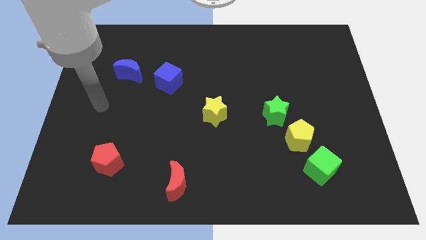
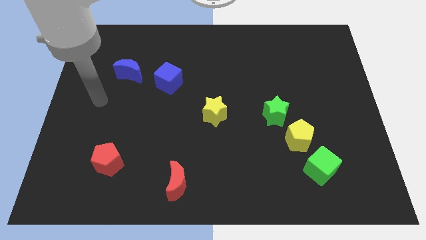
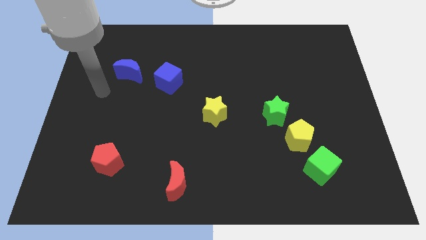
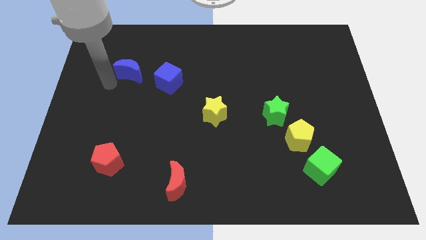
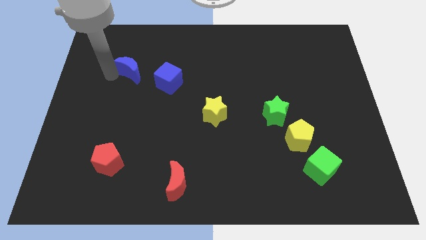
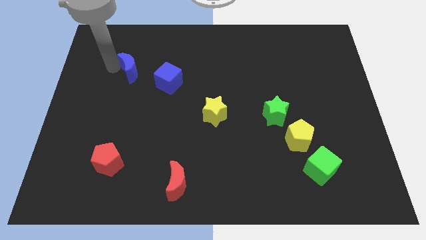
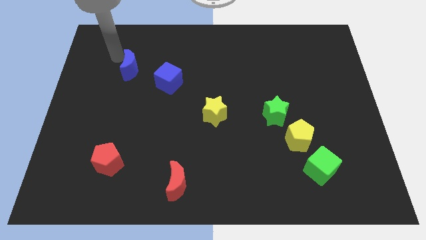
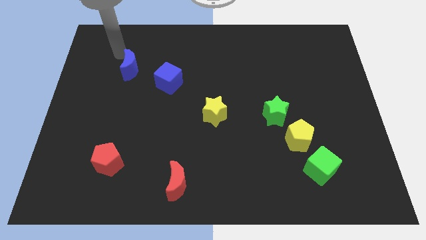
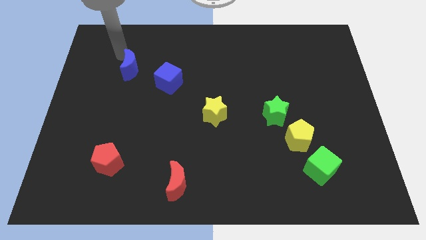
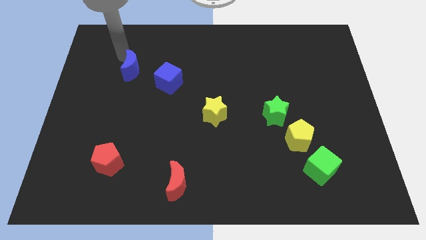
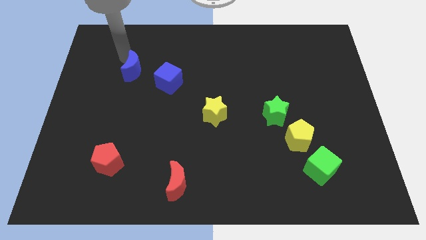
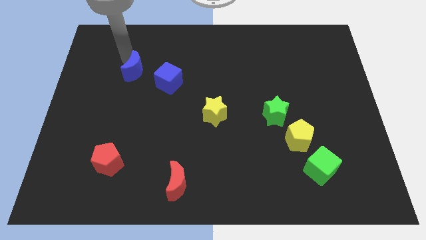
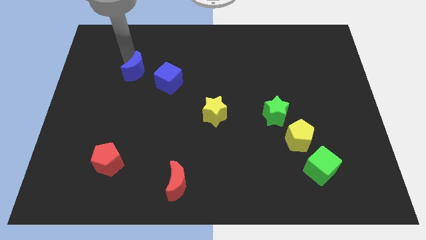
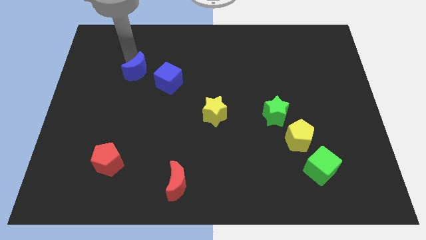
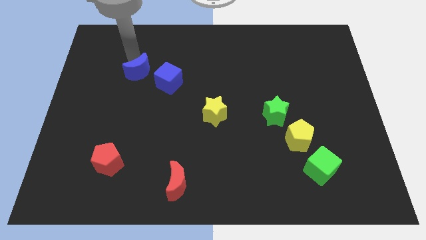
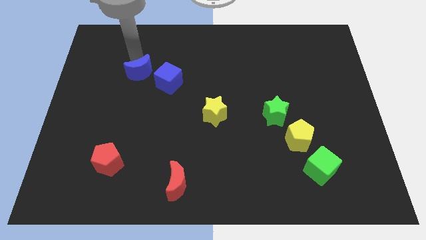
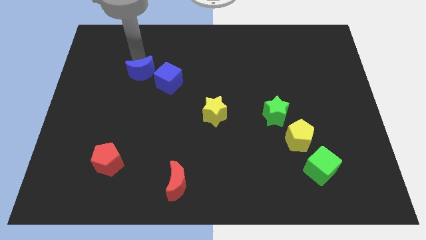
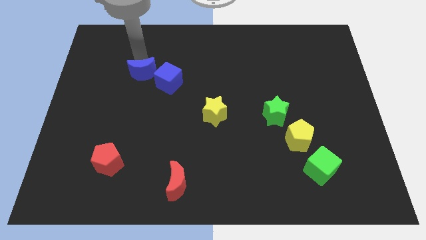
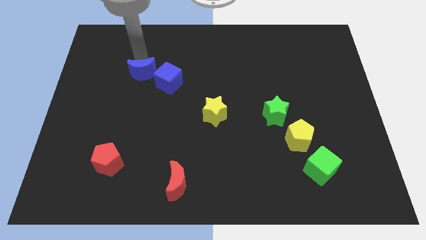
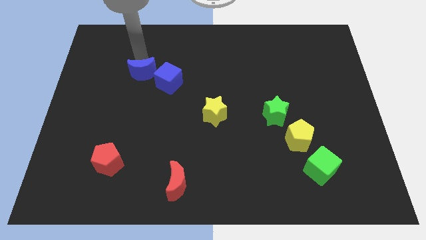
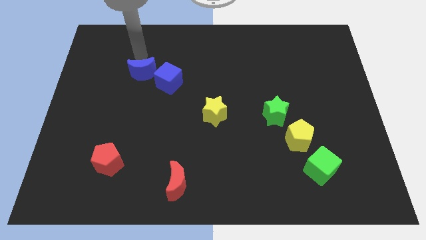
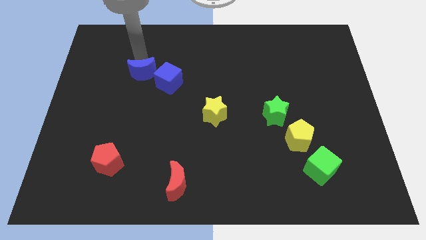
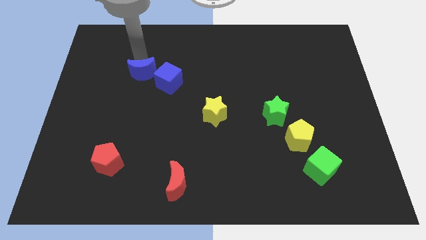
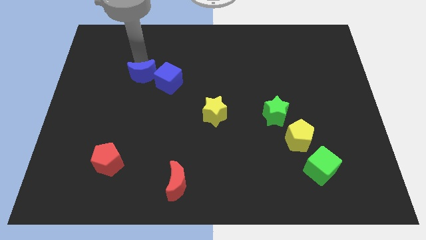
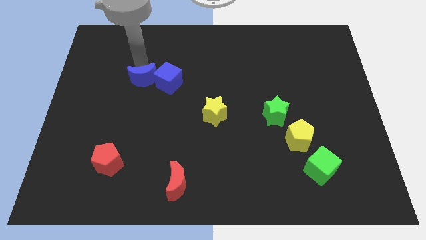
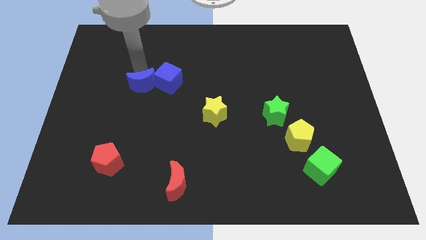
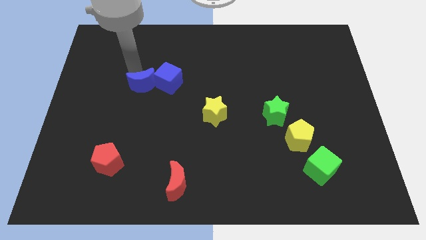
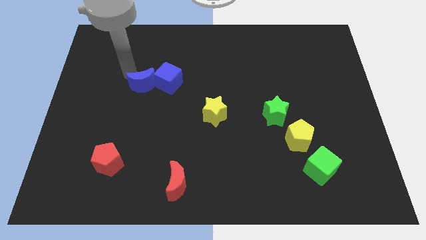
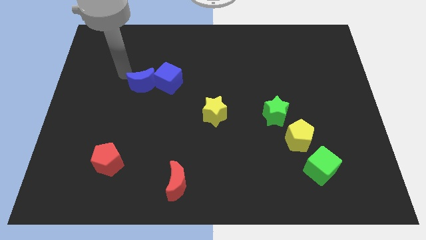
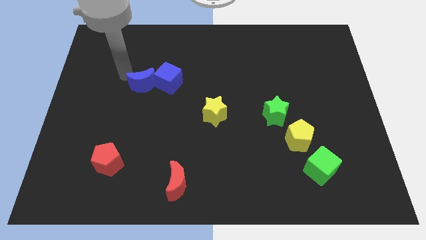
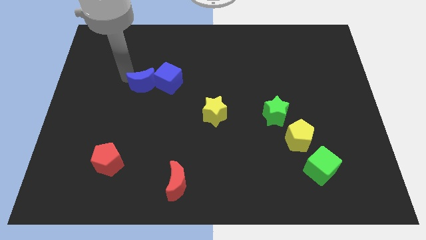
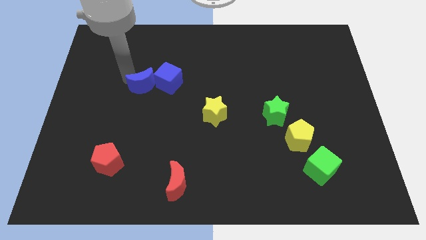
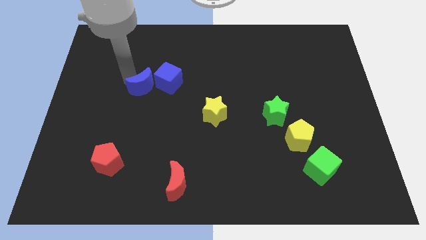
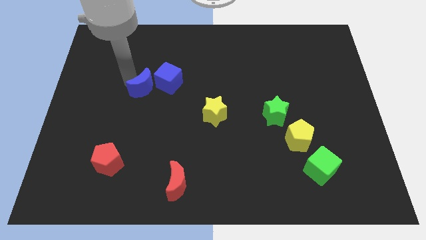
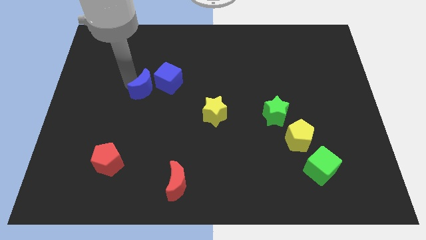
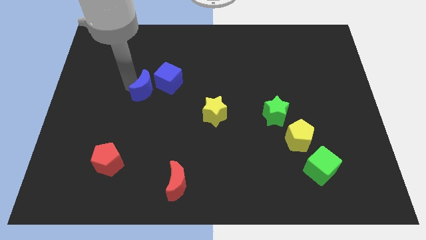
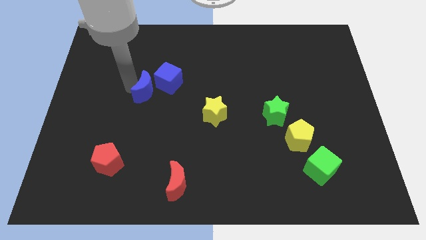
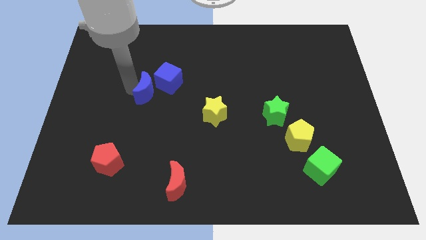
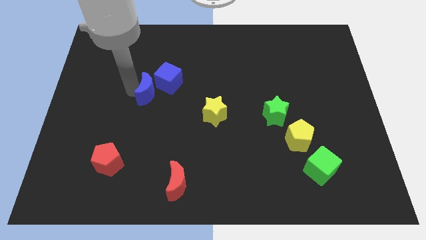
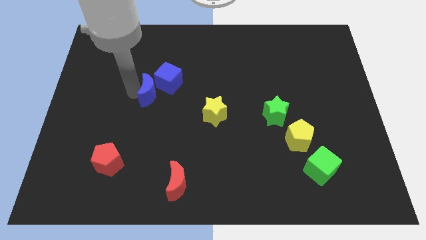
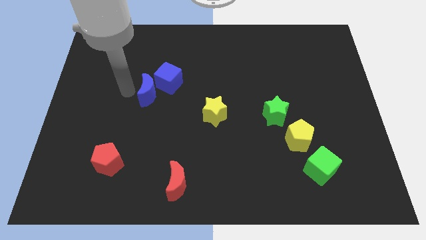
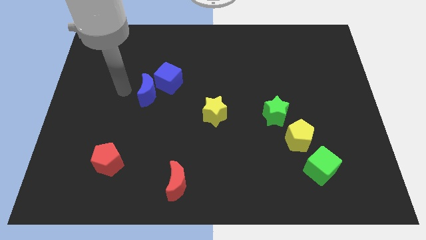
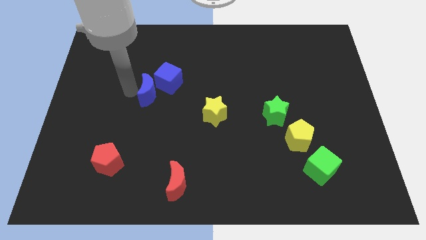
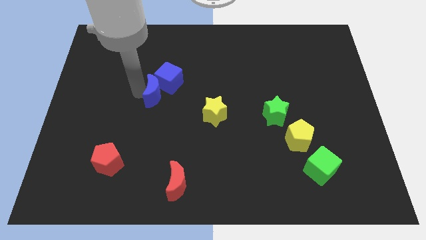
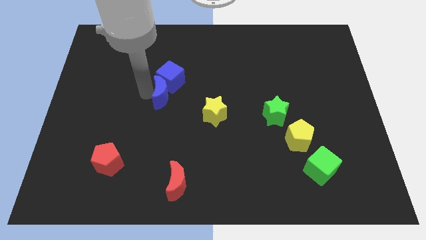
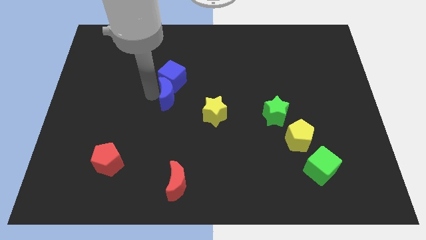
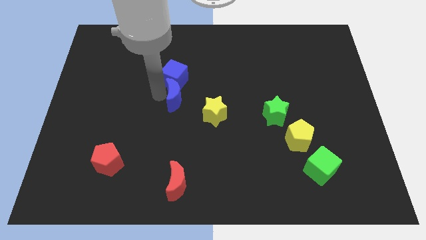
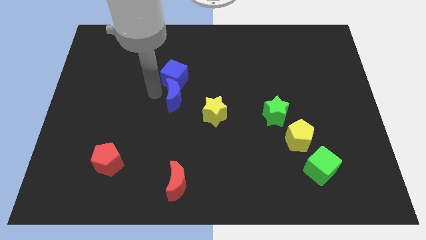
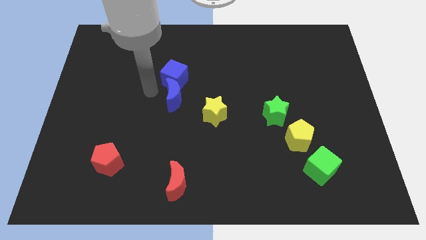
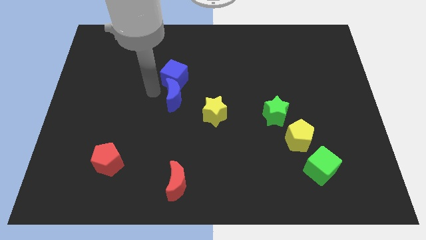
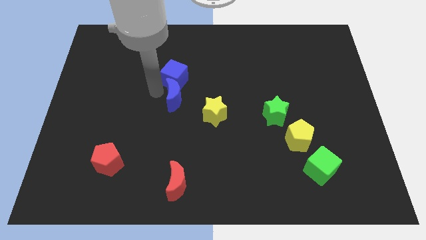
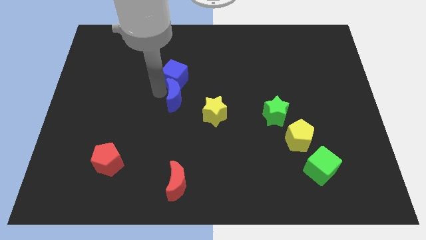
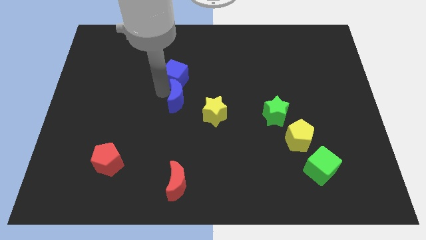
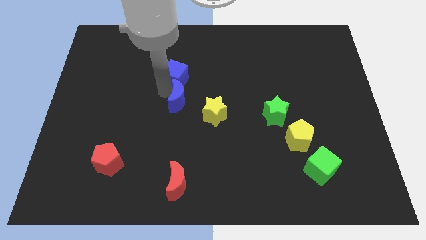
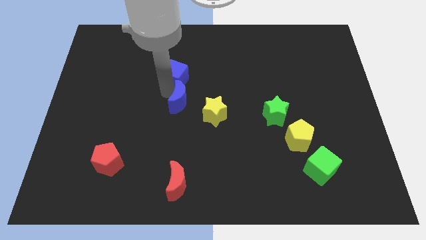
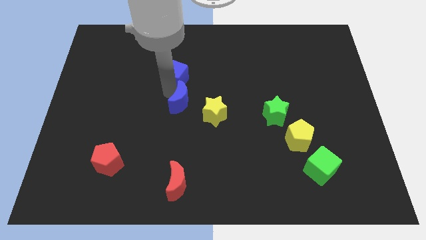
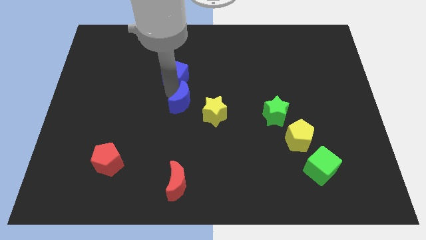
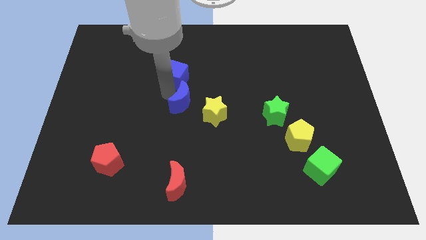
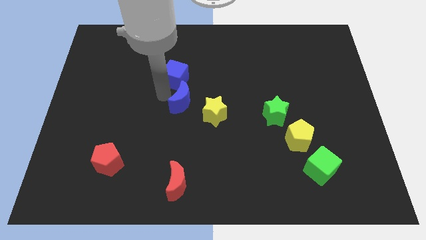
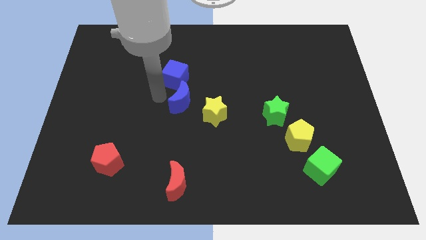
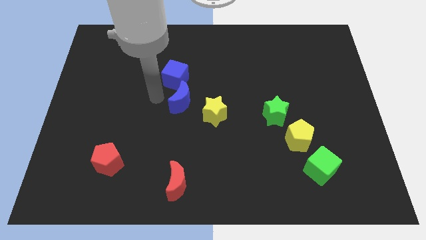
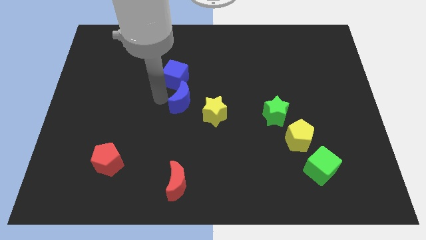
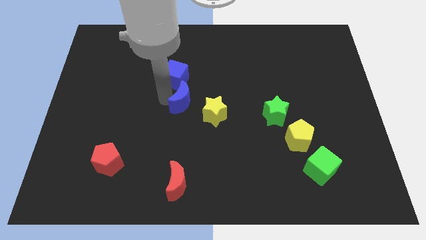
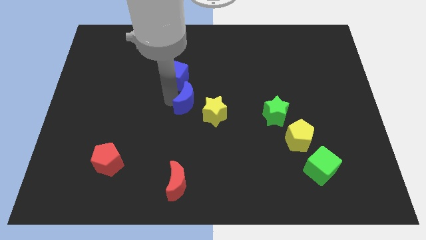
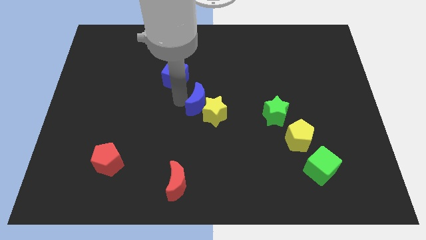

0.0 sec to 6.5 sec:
move the blue moon next to the yellow star

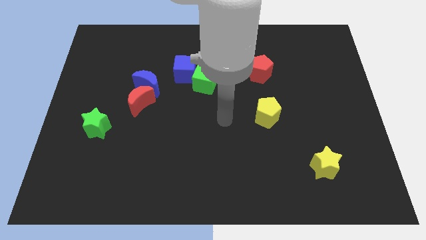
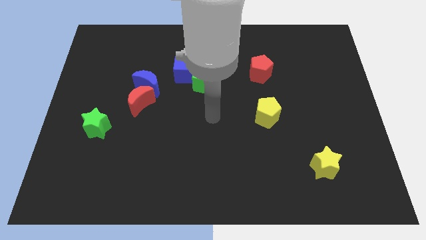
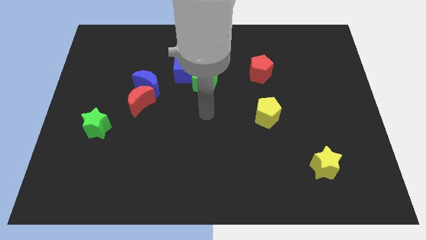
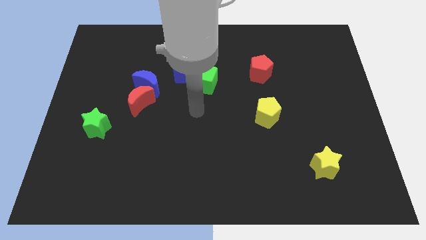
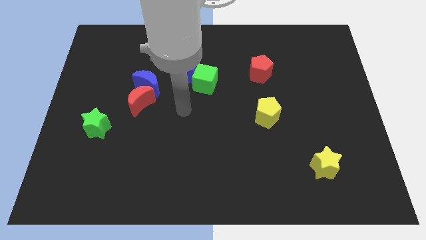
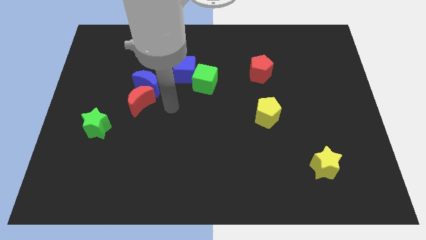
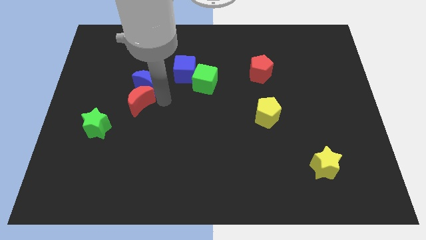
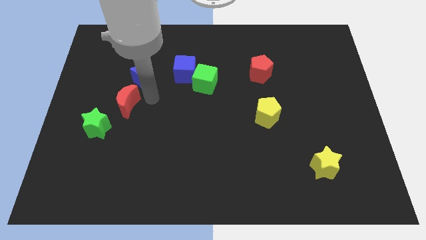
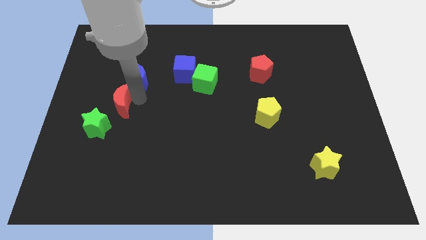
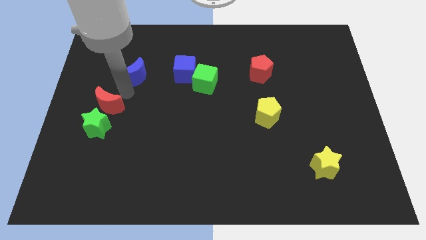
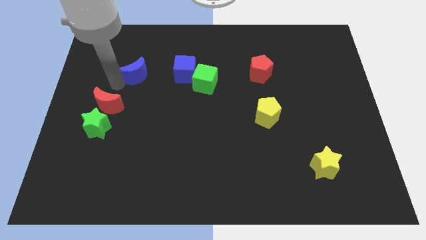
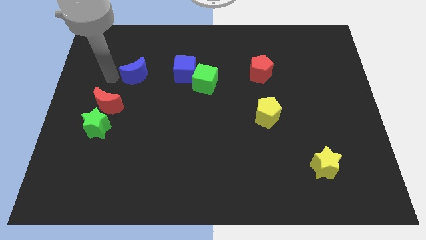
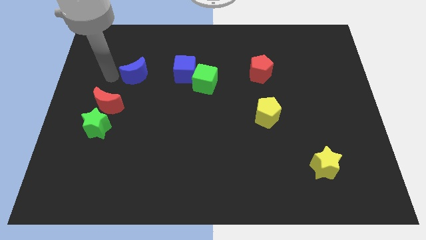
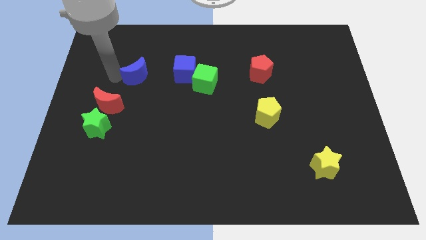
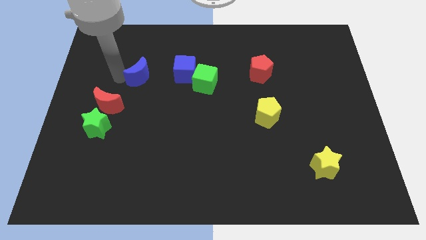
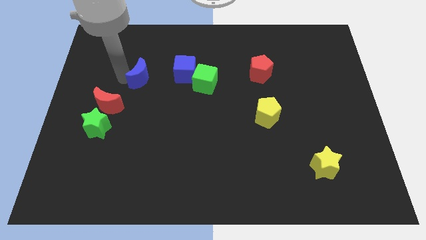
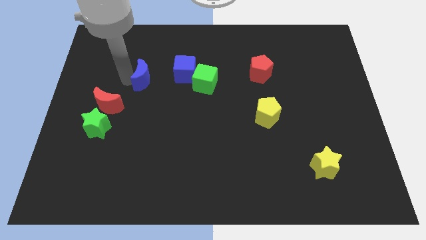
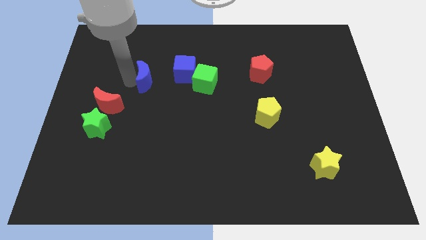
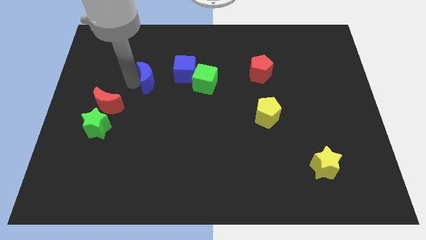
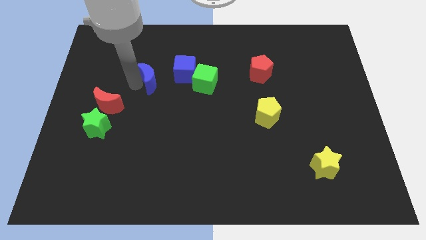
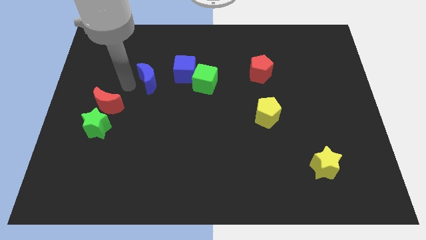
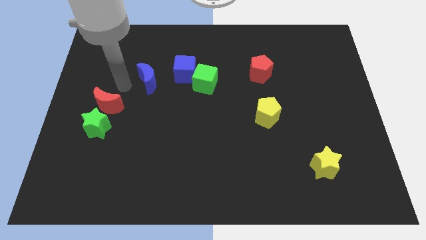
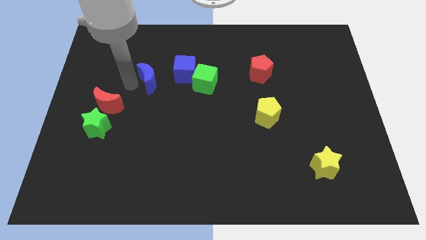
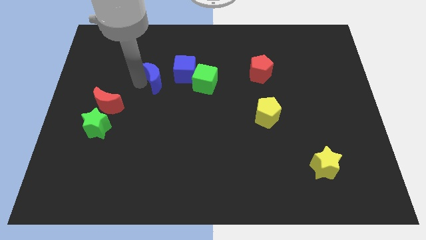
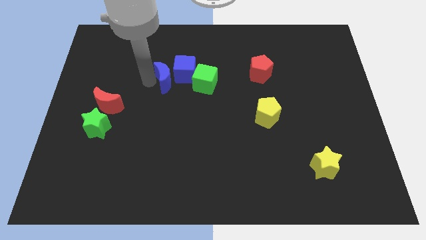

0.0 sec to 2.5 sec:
move the blue moon close to the blue cube
